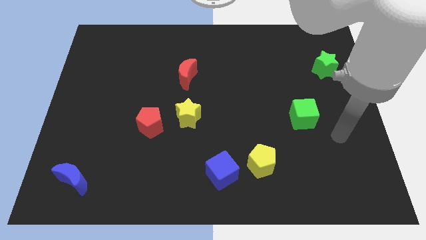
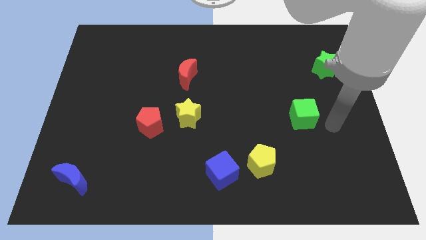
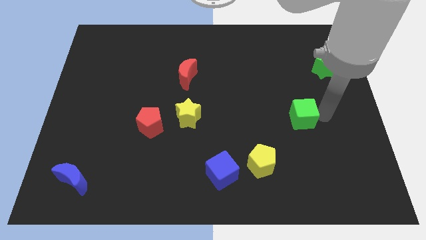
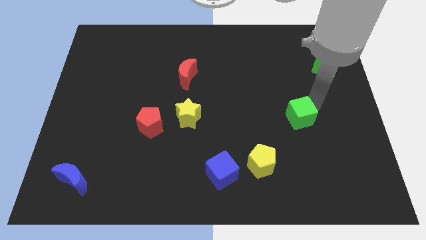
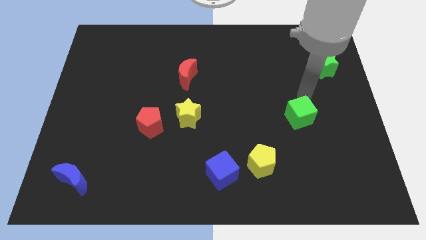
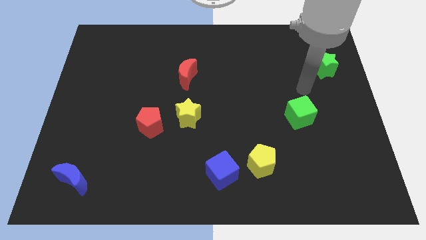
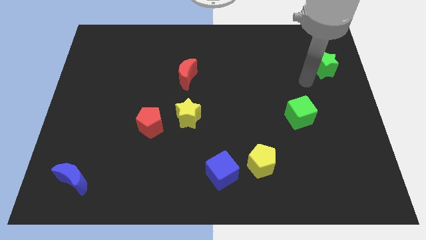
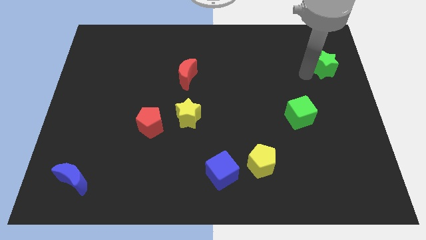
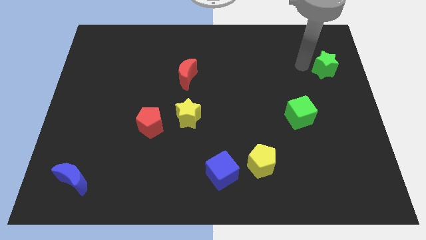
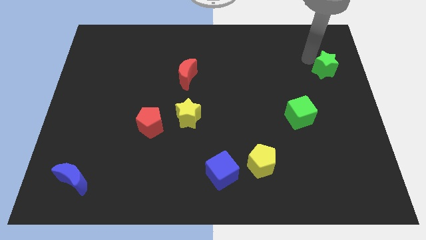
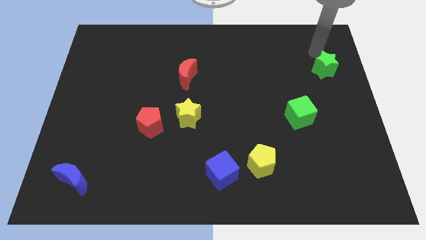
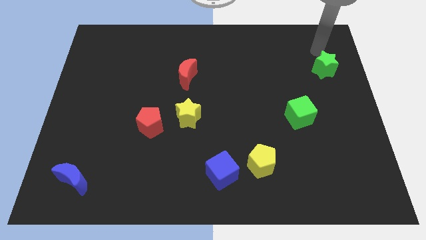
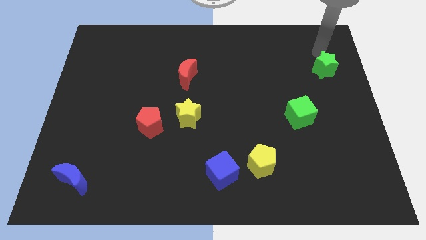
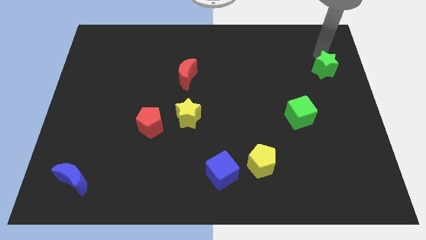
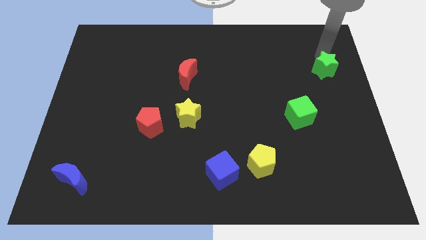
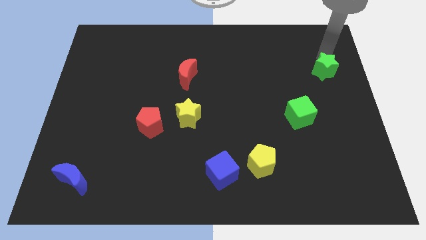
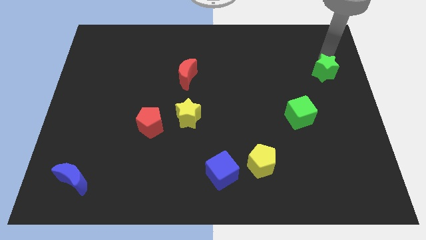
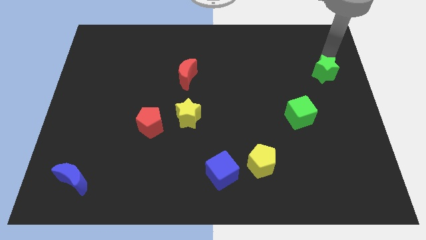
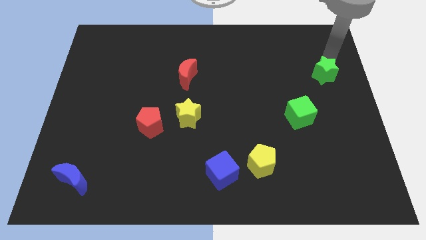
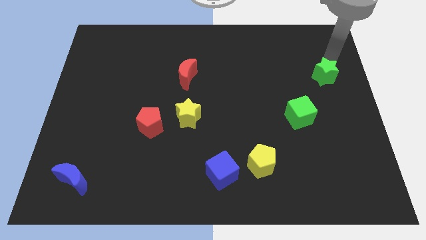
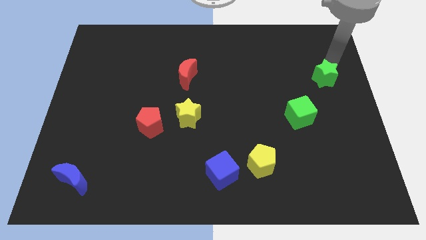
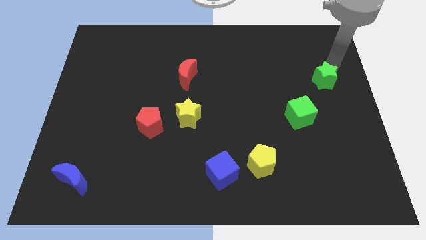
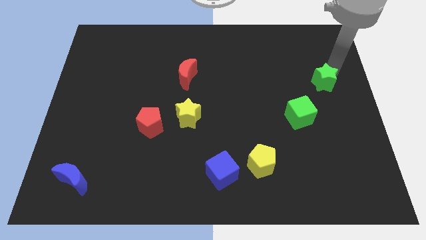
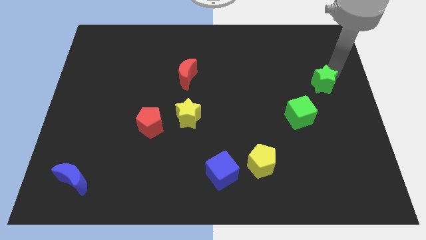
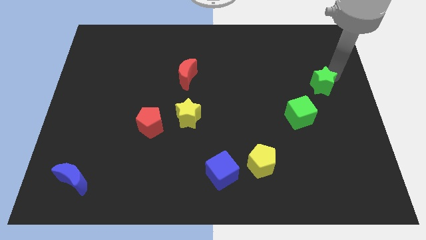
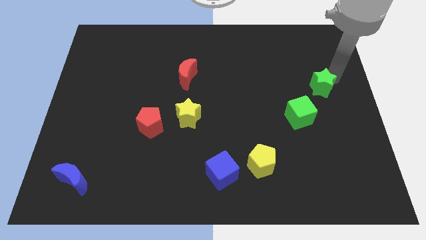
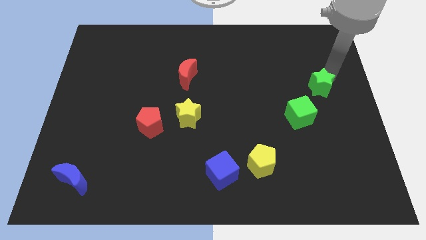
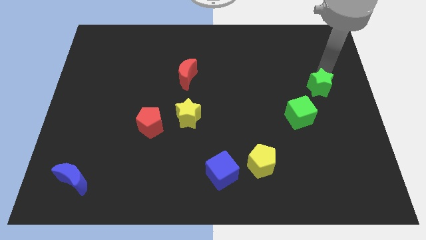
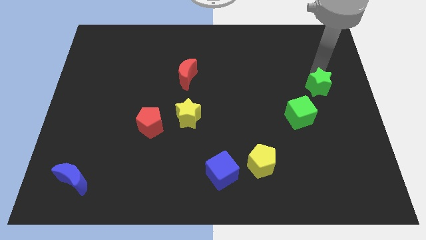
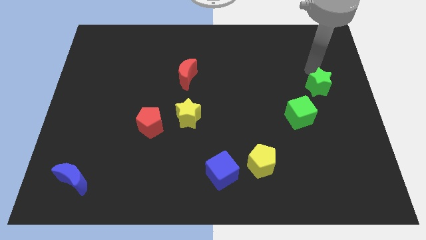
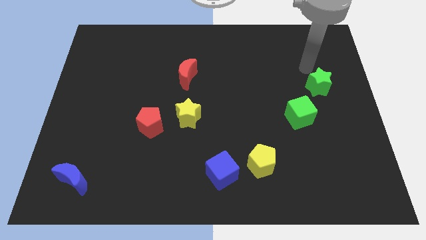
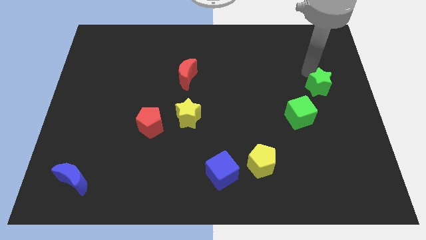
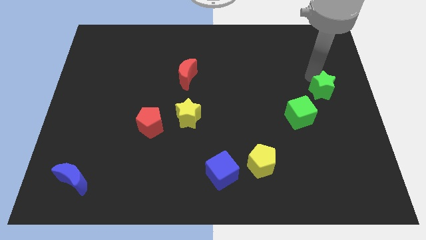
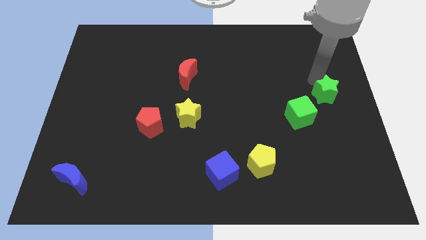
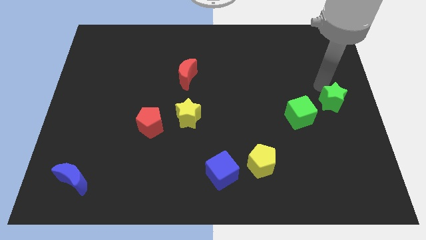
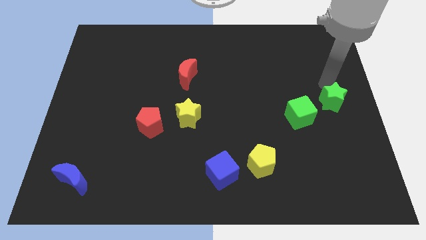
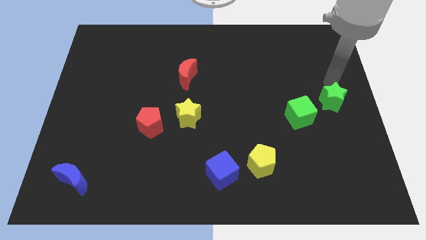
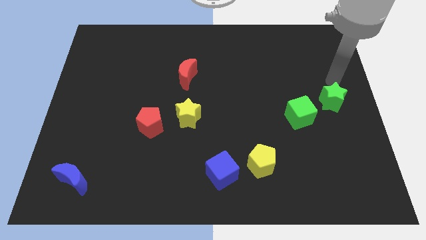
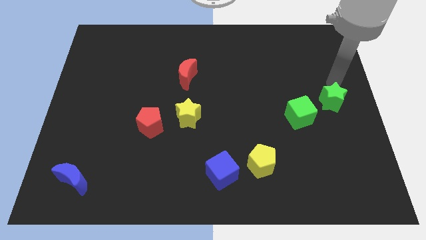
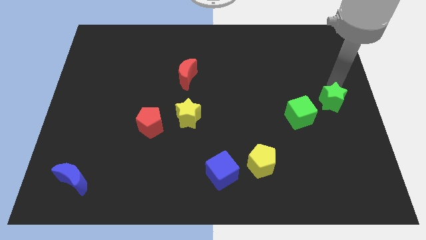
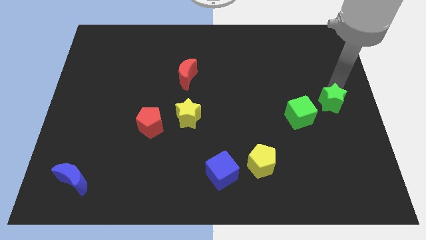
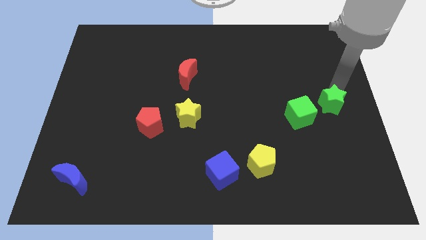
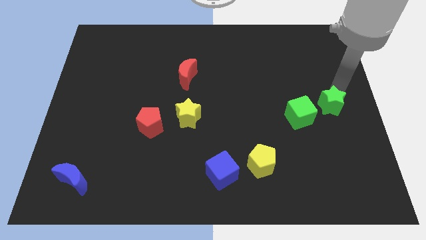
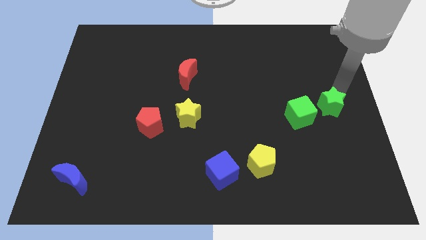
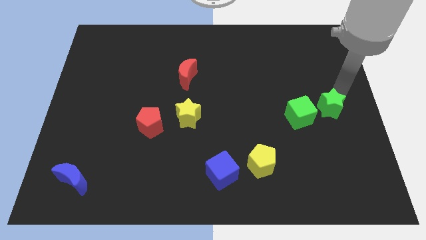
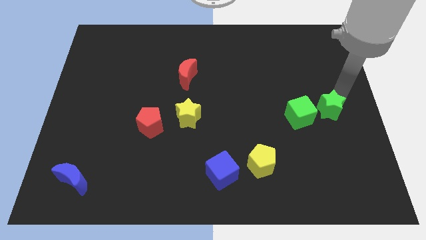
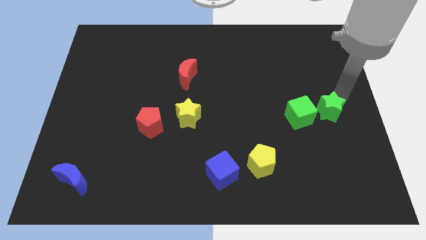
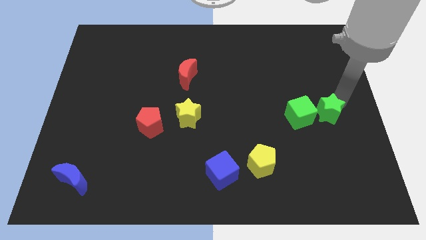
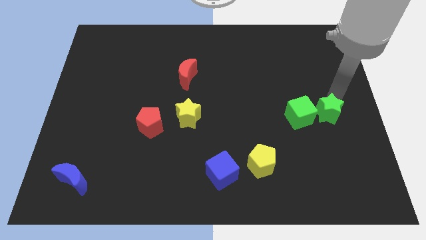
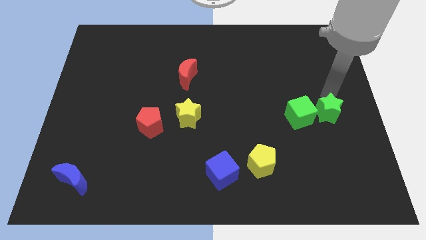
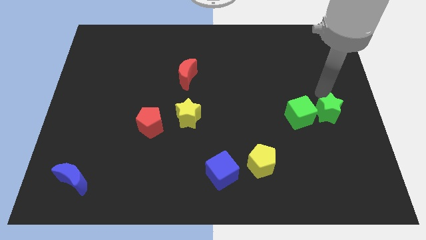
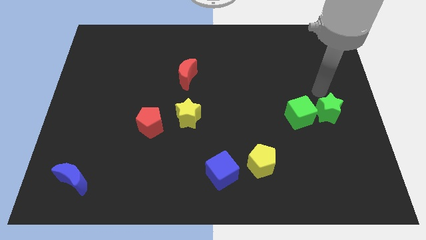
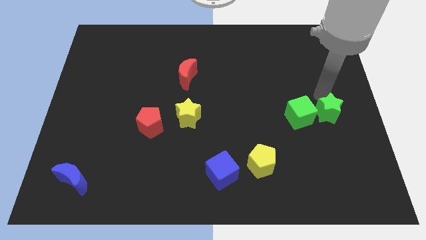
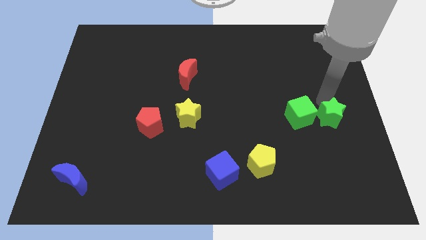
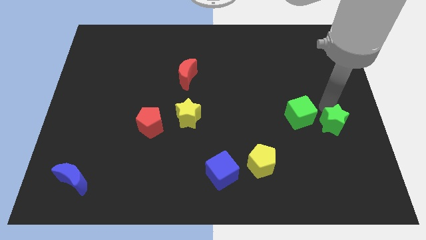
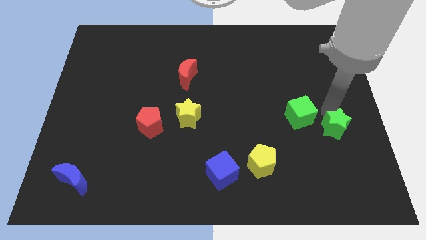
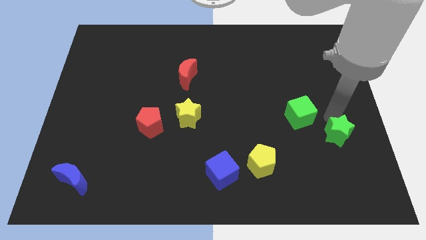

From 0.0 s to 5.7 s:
push the green star downwards

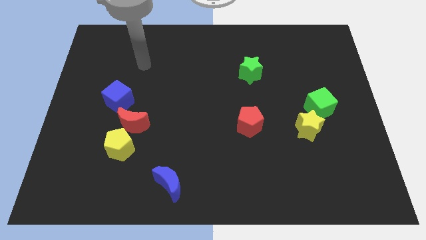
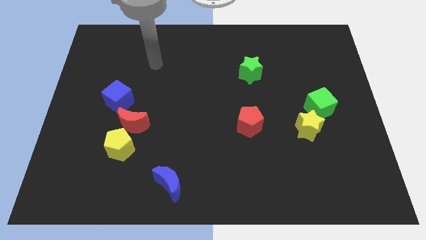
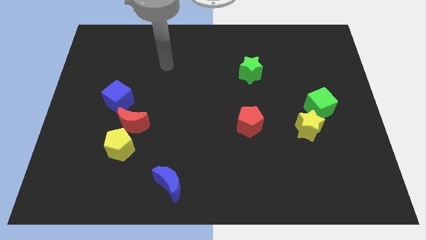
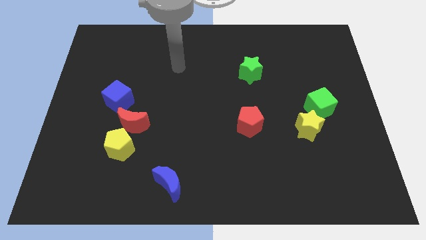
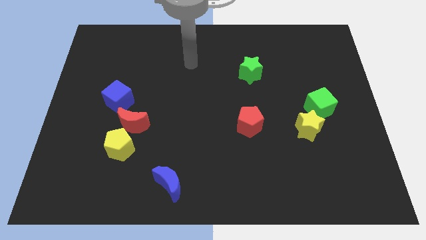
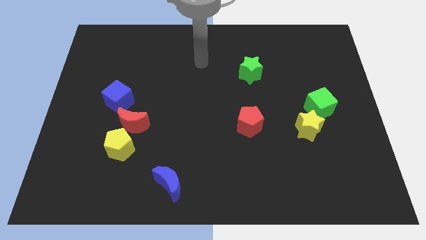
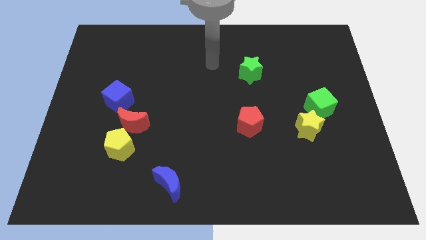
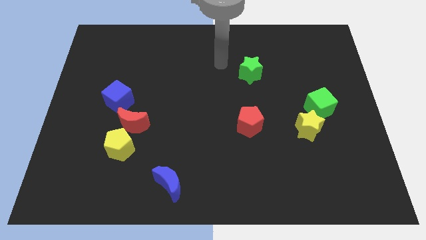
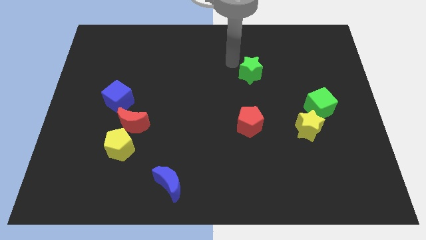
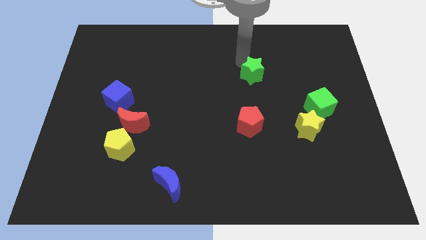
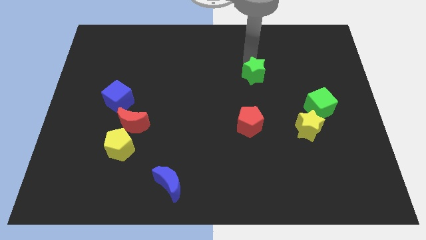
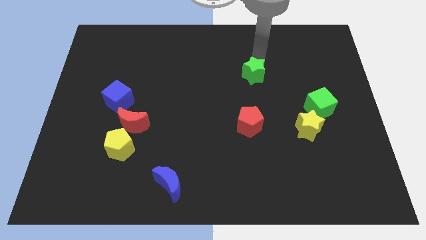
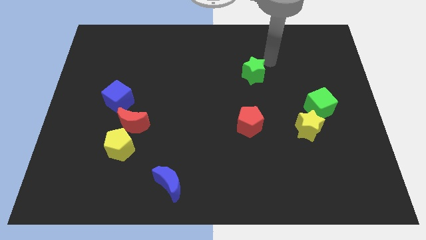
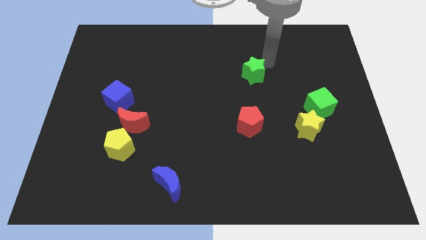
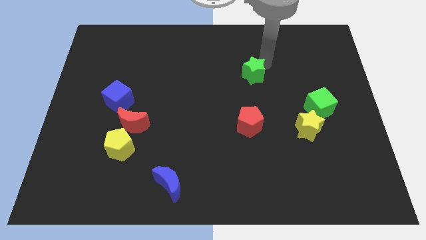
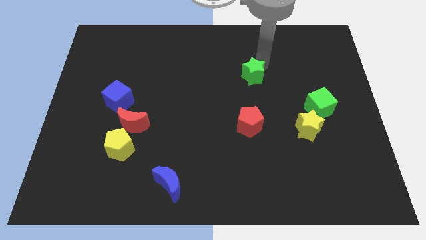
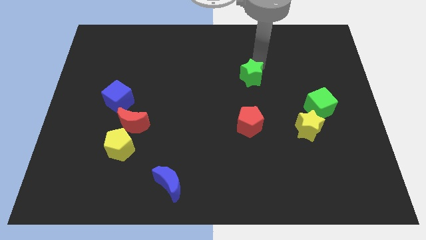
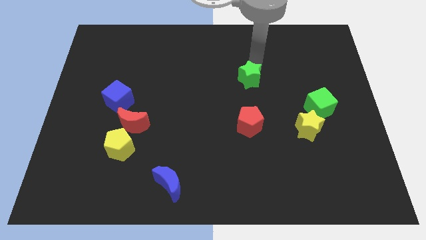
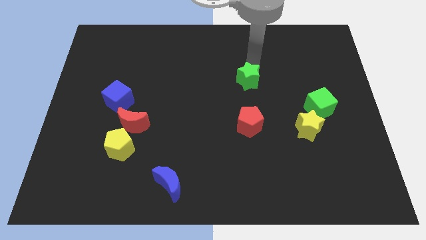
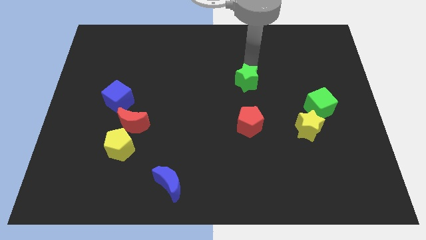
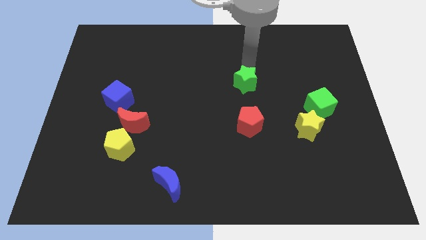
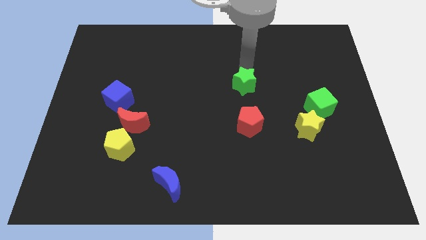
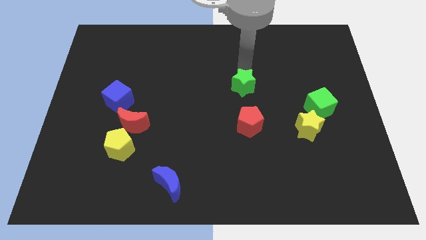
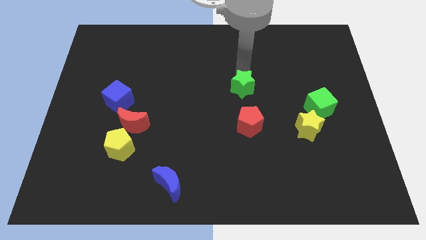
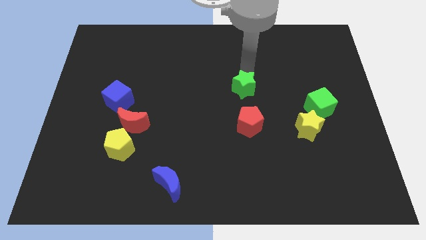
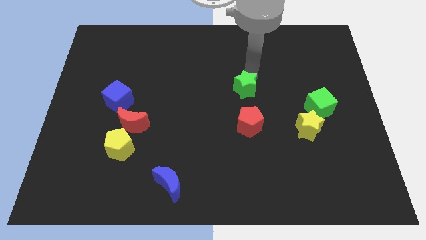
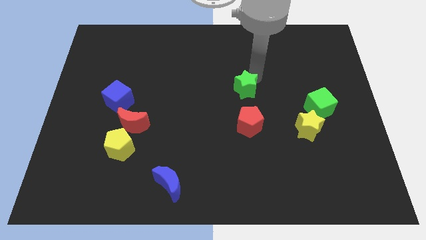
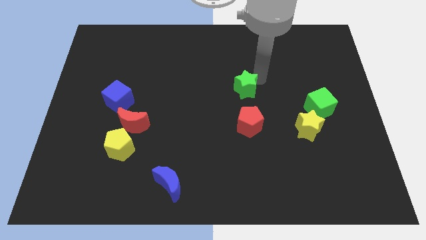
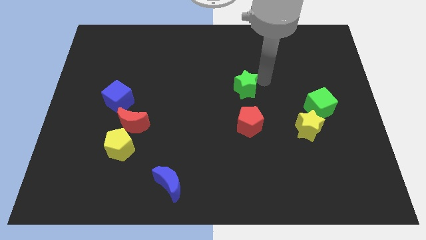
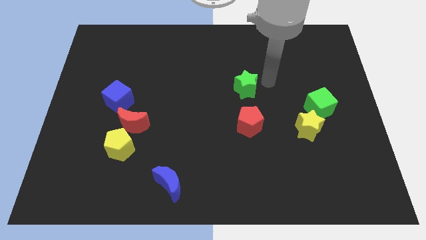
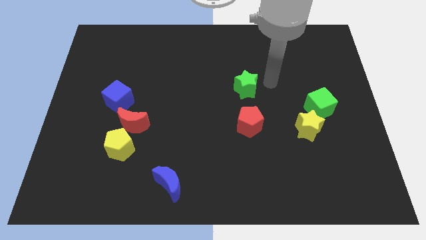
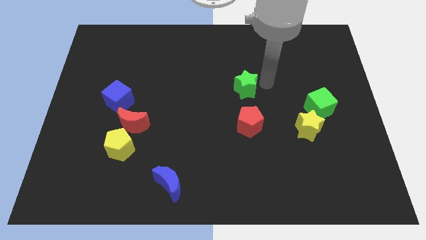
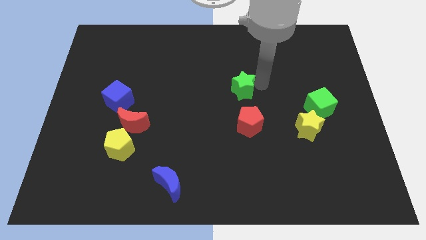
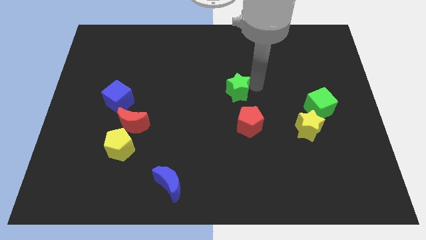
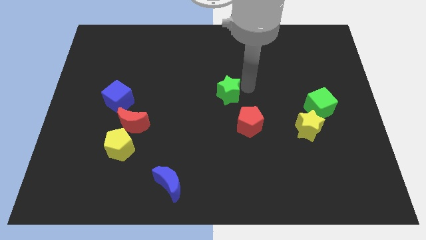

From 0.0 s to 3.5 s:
slightly slide the green star downwards and then to the left
